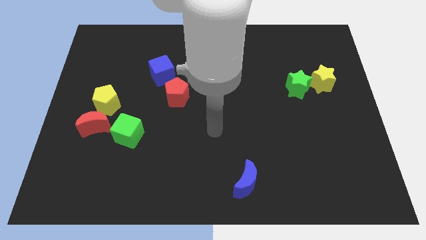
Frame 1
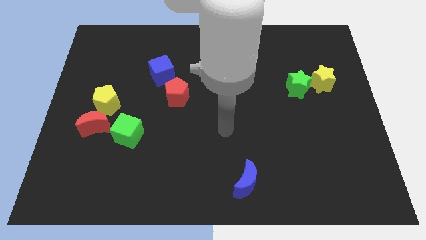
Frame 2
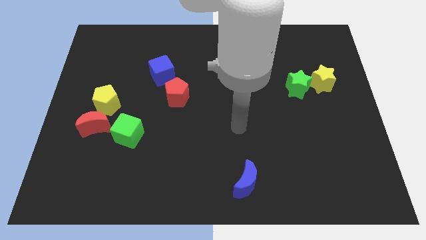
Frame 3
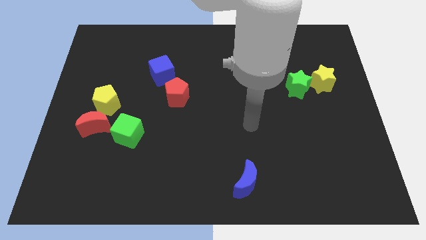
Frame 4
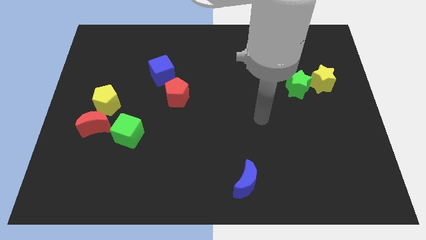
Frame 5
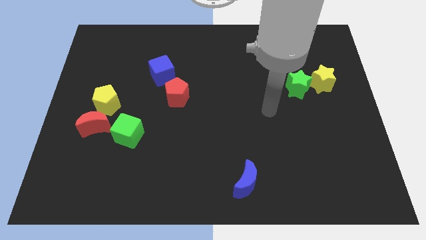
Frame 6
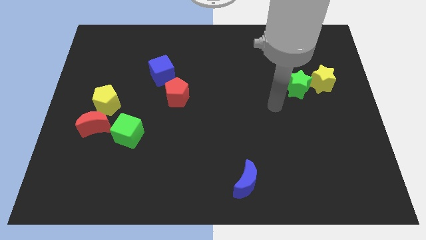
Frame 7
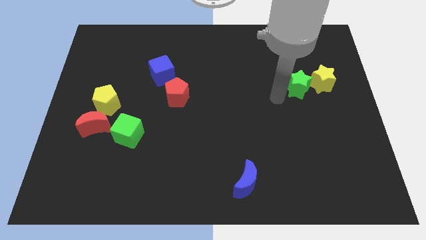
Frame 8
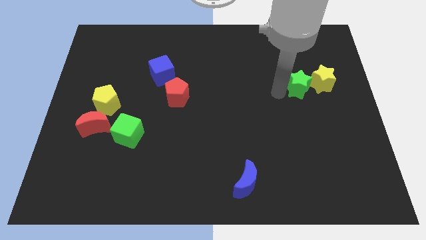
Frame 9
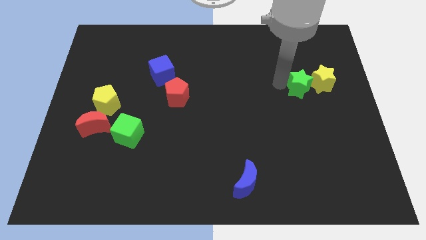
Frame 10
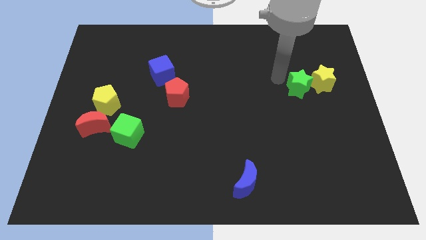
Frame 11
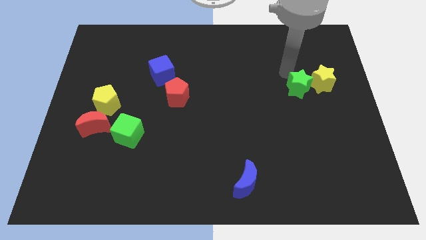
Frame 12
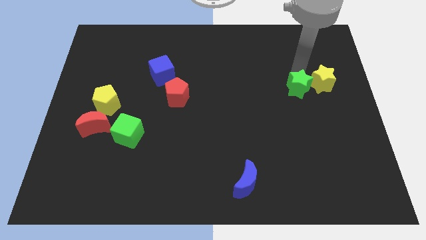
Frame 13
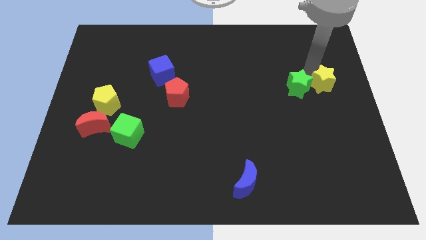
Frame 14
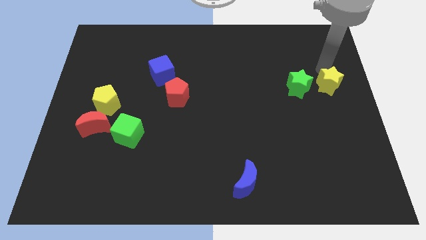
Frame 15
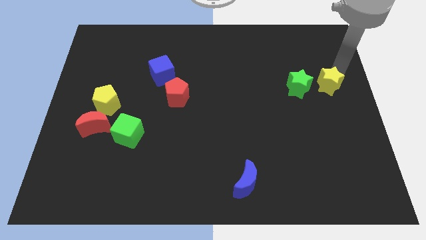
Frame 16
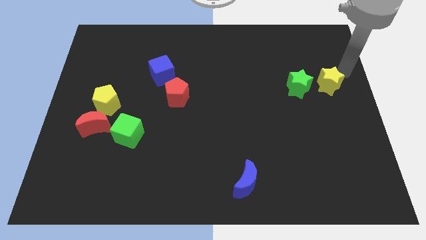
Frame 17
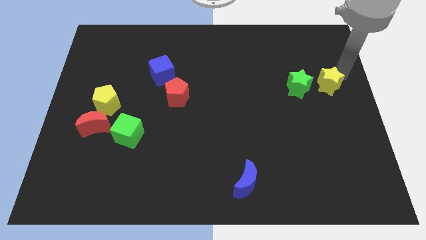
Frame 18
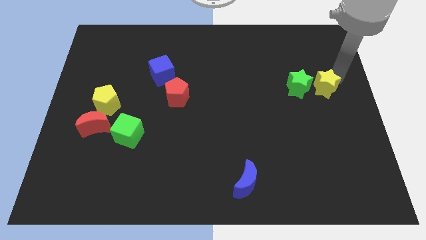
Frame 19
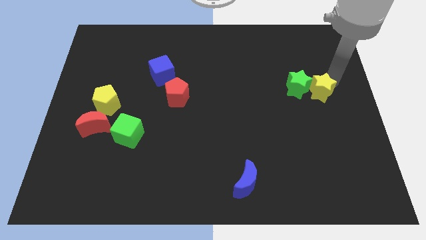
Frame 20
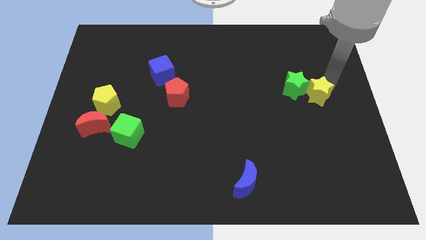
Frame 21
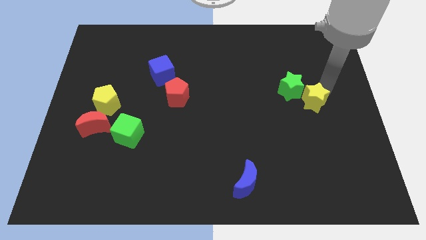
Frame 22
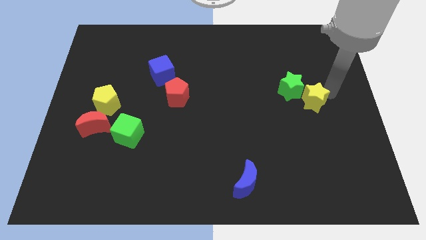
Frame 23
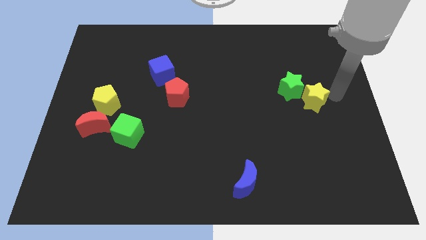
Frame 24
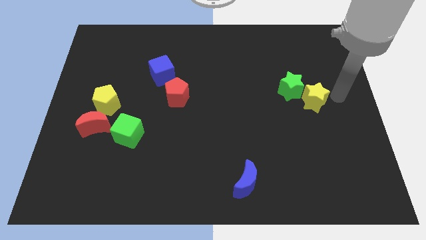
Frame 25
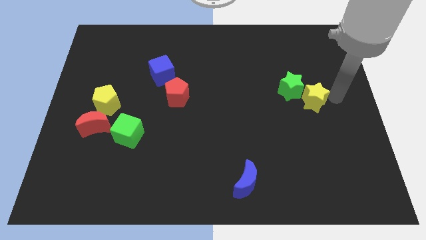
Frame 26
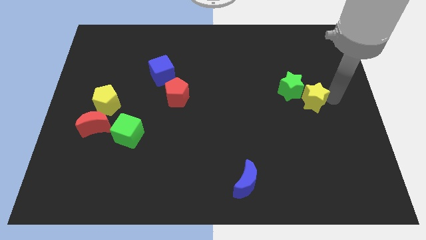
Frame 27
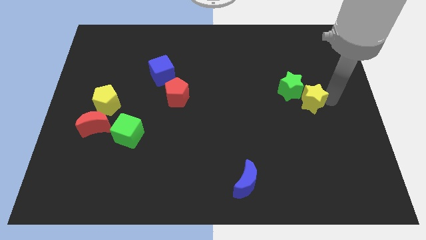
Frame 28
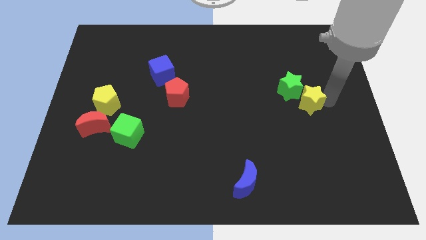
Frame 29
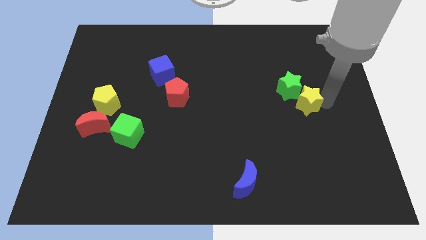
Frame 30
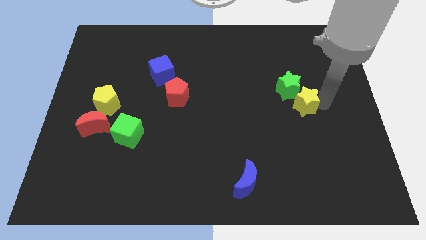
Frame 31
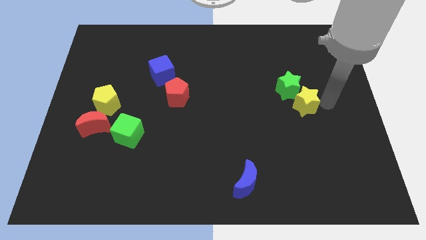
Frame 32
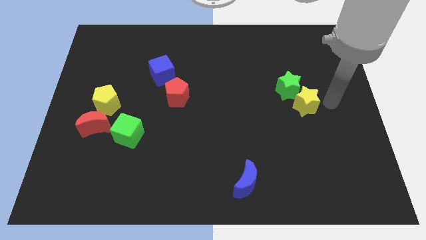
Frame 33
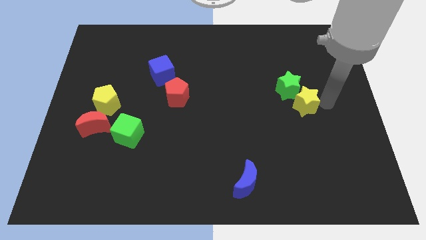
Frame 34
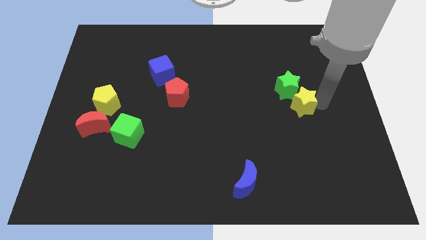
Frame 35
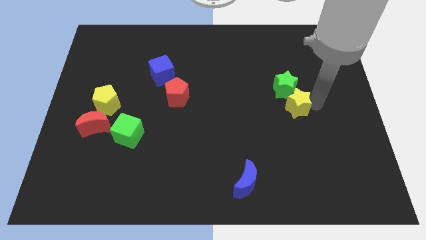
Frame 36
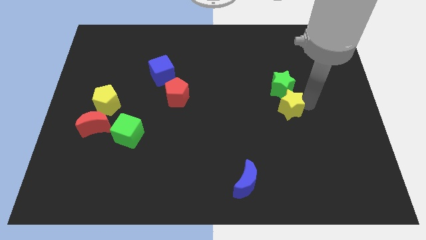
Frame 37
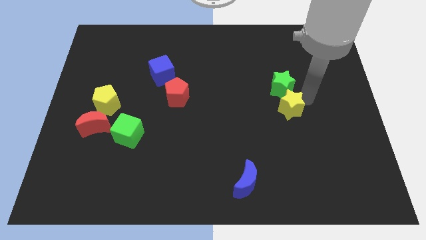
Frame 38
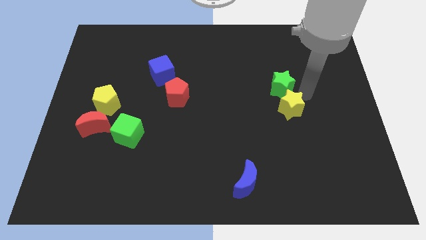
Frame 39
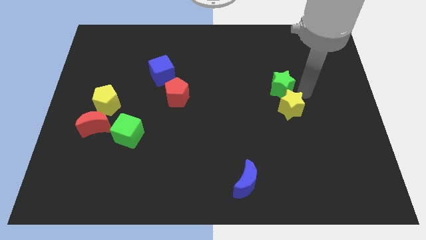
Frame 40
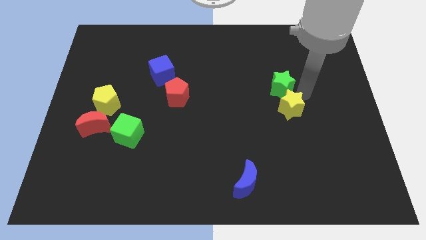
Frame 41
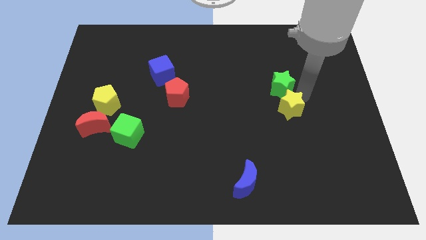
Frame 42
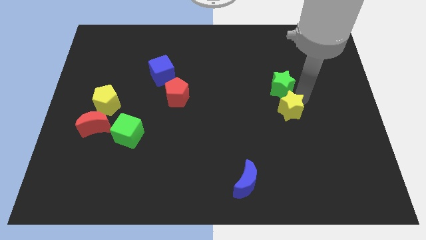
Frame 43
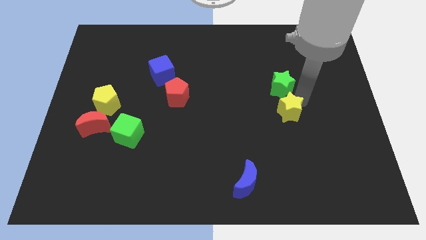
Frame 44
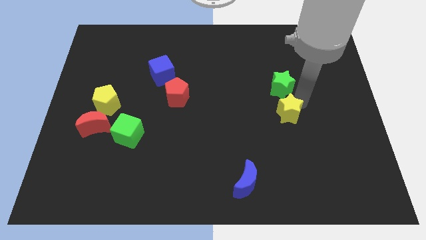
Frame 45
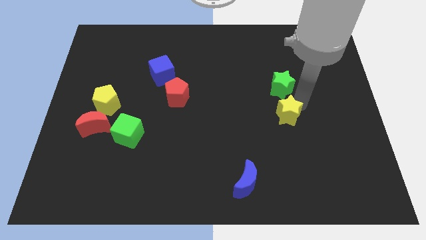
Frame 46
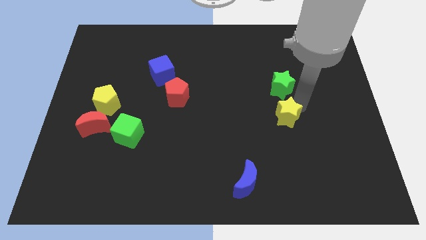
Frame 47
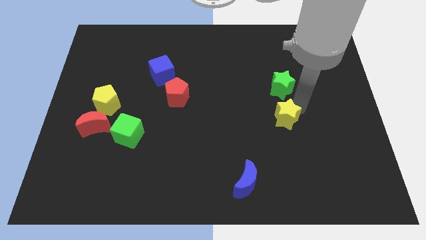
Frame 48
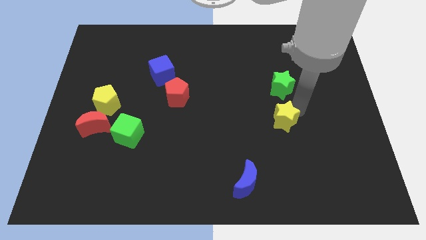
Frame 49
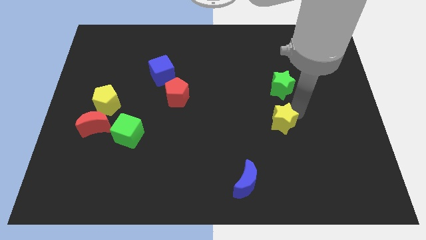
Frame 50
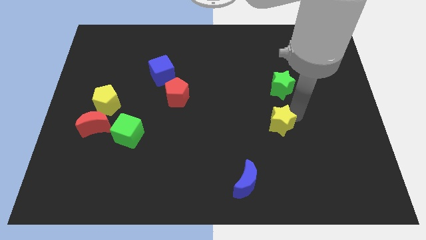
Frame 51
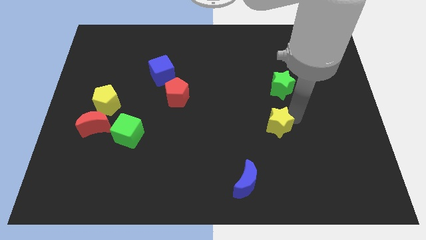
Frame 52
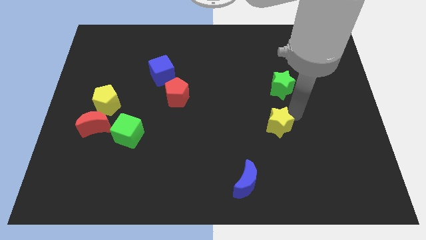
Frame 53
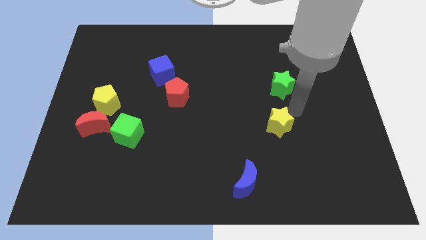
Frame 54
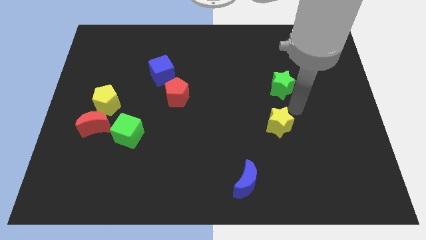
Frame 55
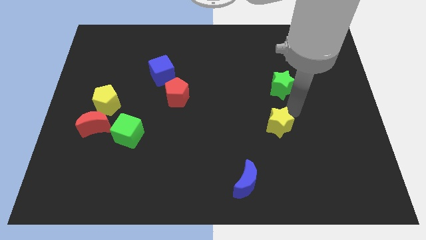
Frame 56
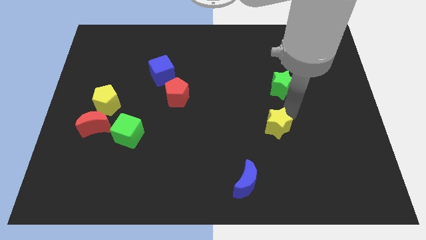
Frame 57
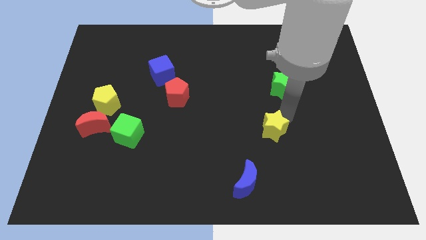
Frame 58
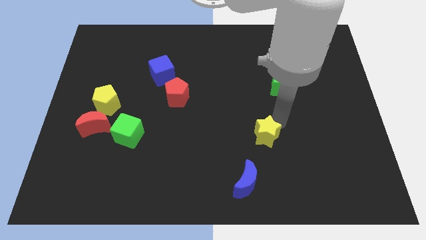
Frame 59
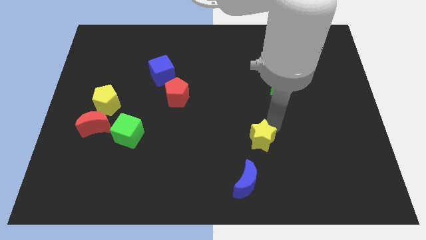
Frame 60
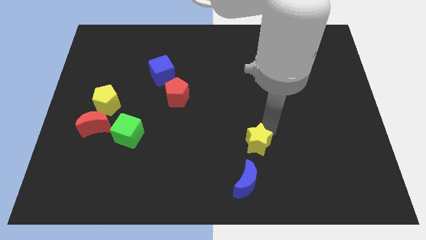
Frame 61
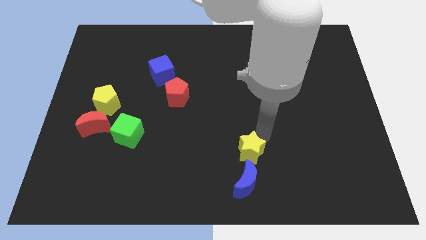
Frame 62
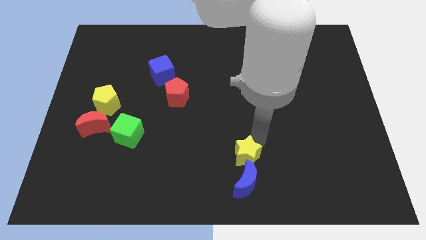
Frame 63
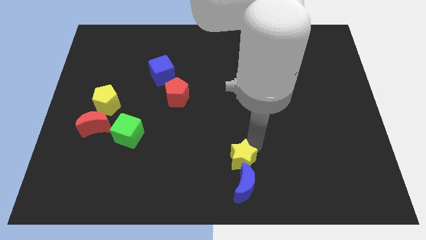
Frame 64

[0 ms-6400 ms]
push the yellow star to the bottom
